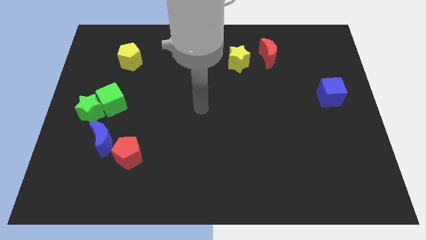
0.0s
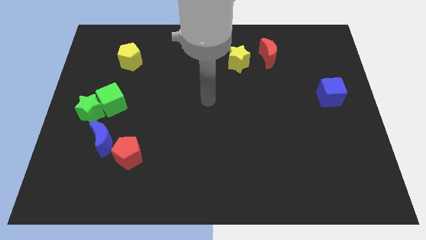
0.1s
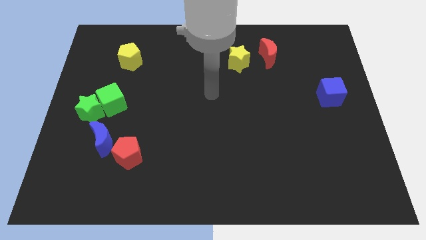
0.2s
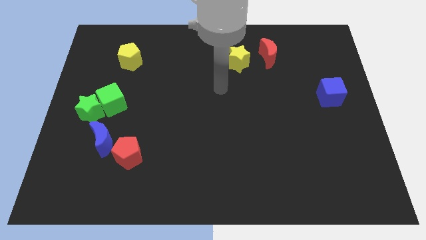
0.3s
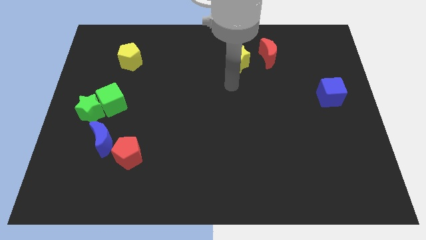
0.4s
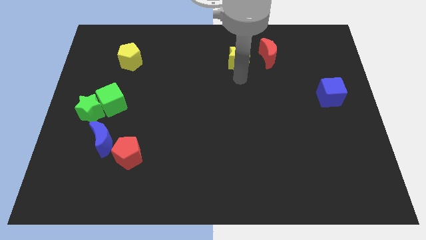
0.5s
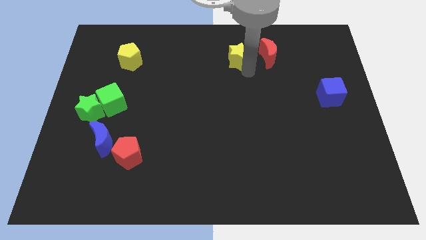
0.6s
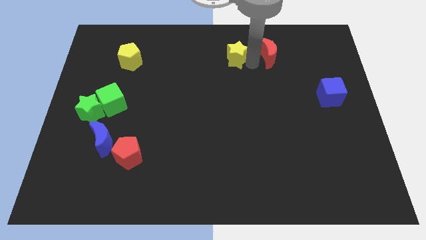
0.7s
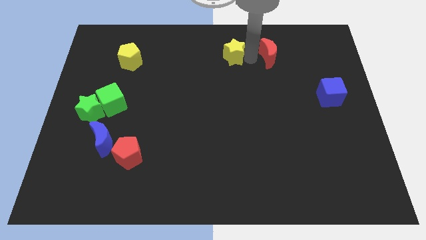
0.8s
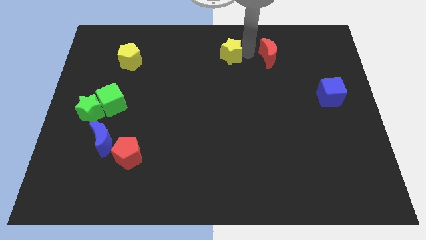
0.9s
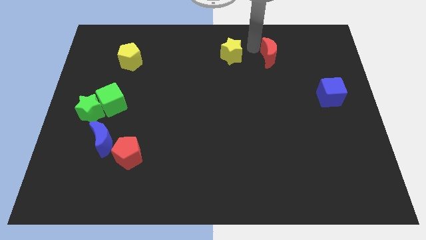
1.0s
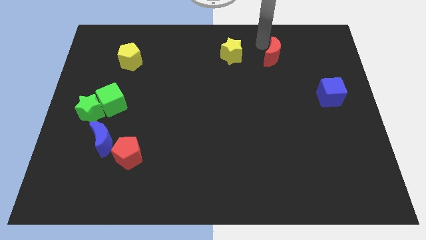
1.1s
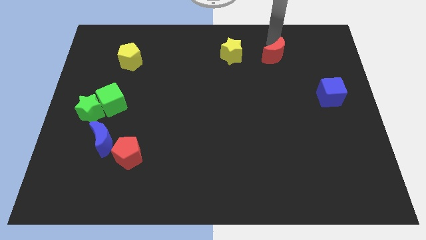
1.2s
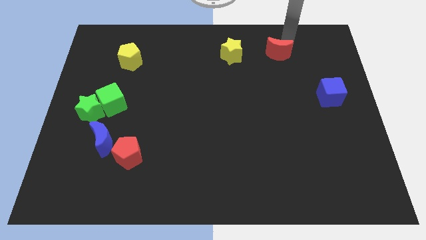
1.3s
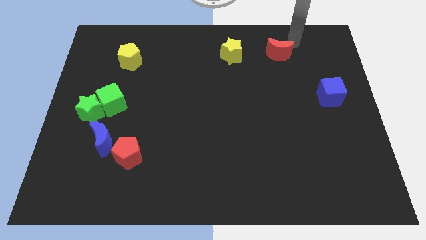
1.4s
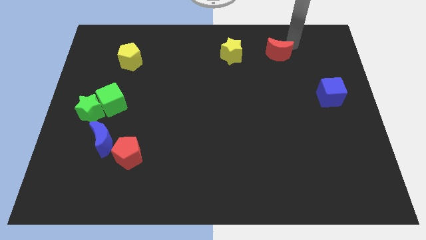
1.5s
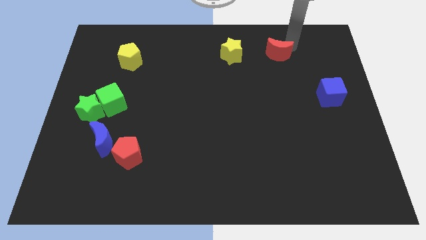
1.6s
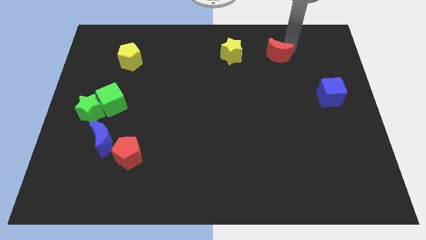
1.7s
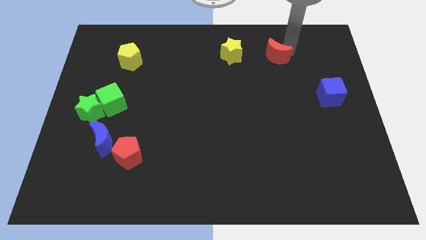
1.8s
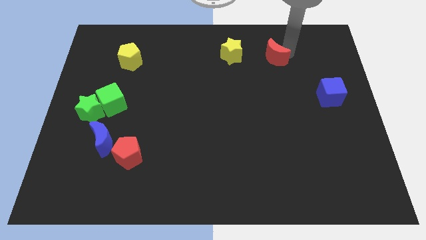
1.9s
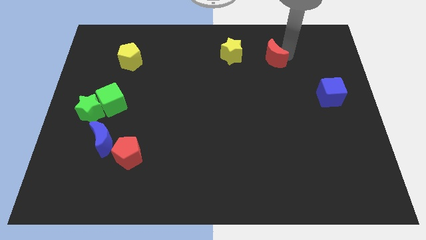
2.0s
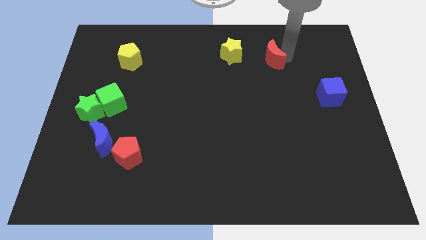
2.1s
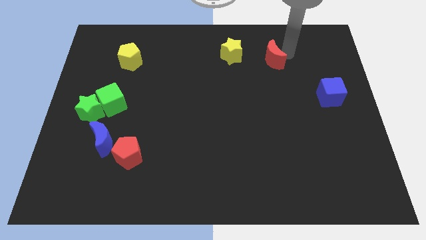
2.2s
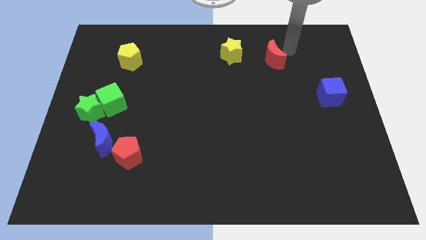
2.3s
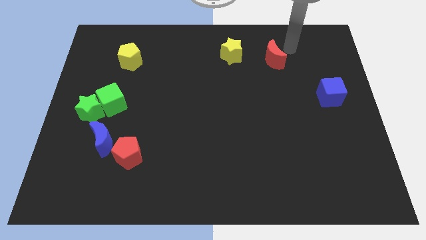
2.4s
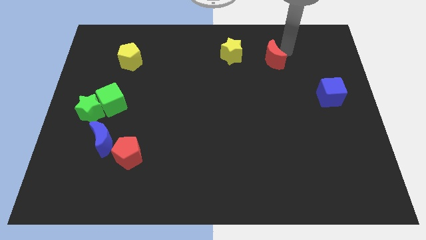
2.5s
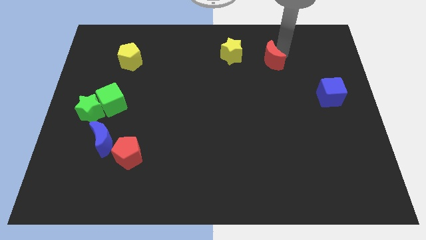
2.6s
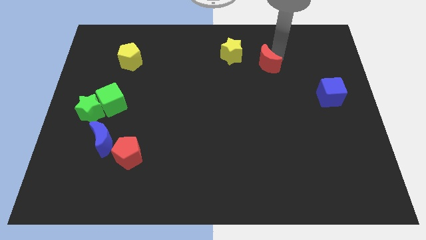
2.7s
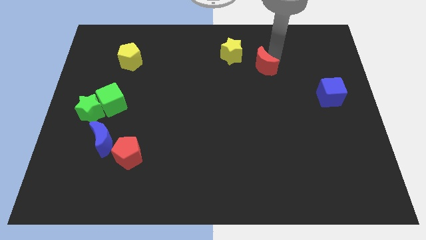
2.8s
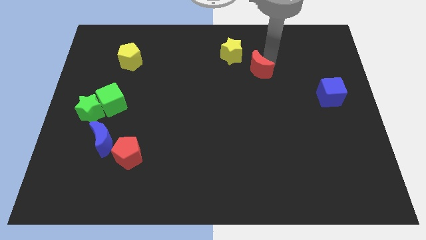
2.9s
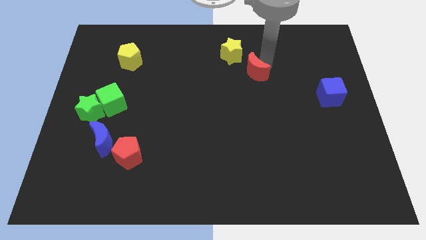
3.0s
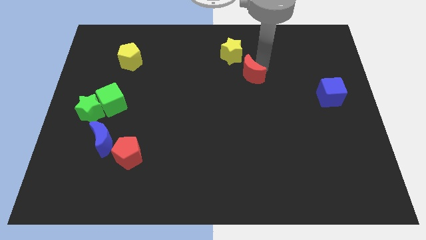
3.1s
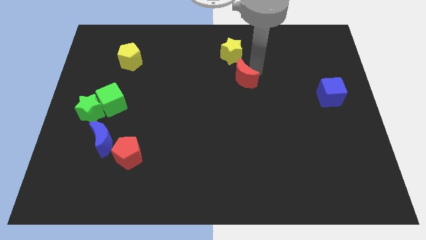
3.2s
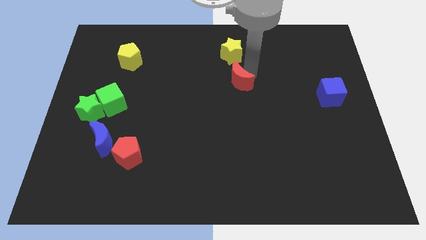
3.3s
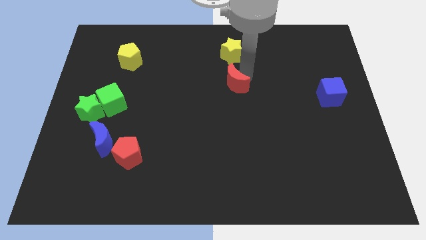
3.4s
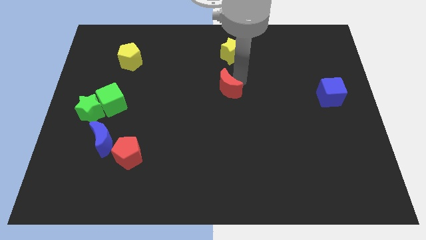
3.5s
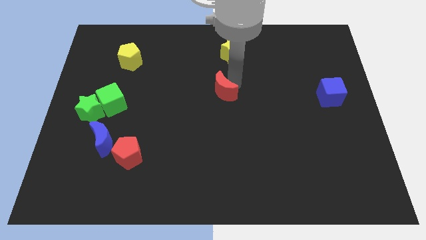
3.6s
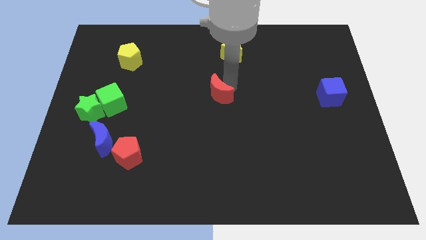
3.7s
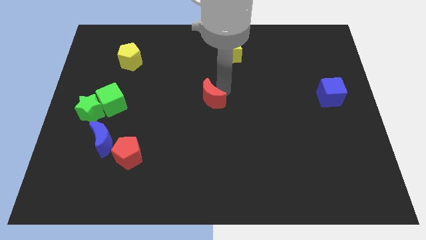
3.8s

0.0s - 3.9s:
push the red moon downwards and then left

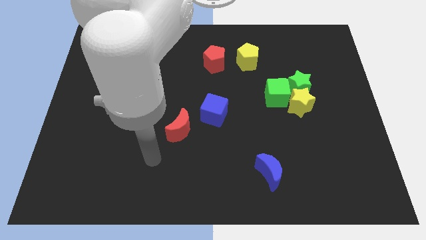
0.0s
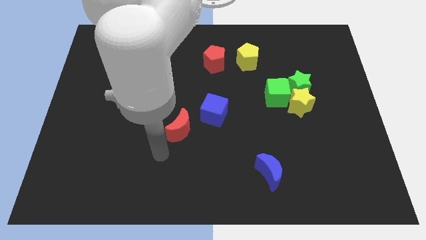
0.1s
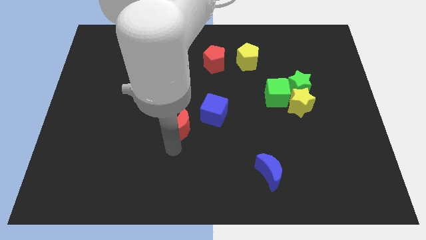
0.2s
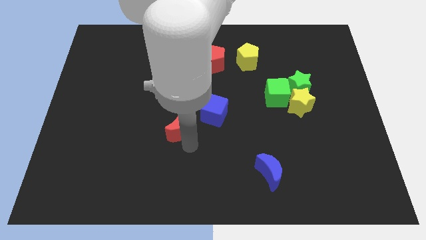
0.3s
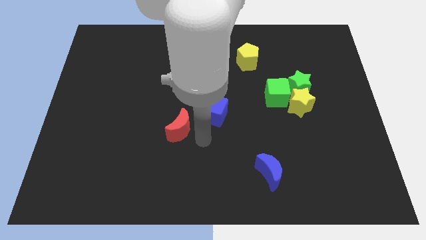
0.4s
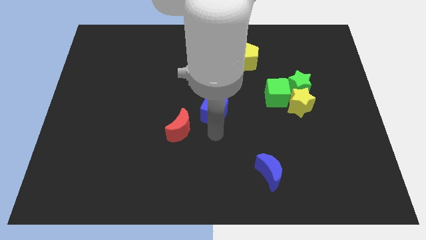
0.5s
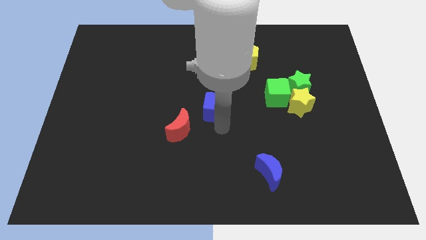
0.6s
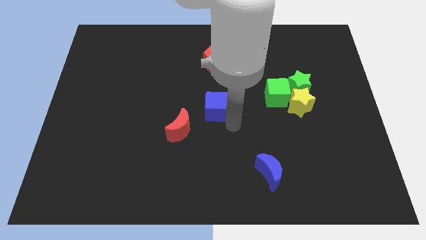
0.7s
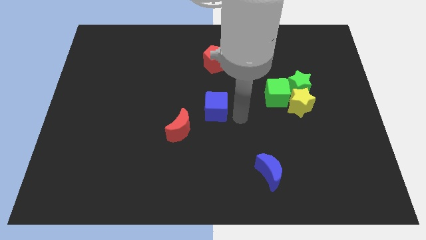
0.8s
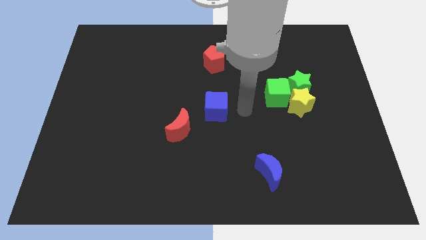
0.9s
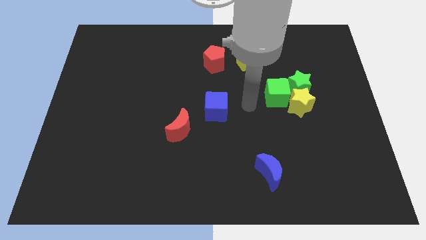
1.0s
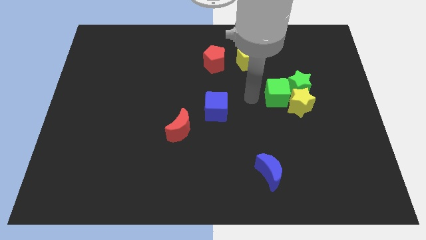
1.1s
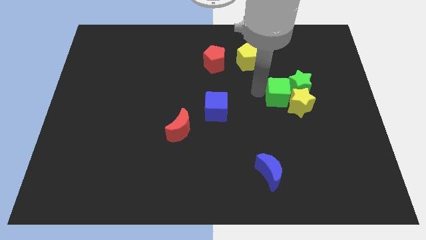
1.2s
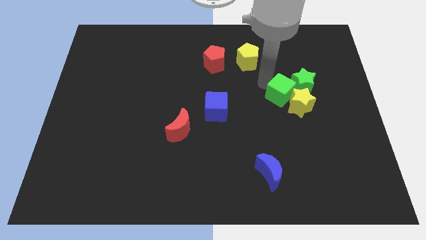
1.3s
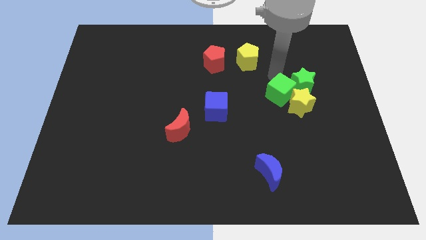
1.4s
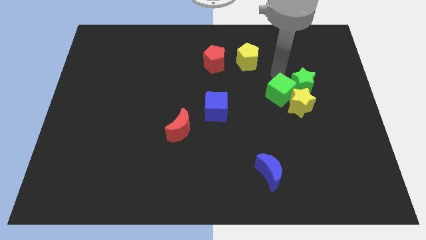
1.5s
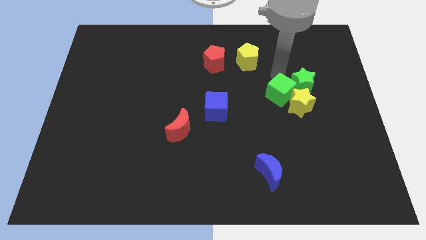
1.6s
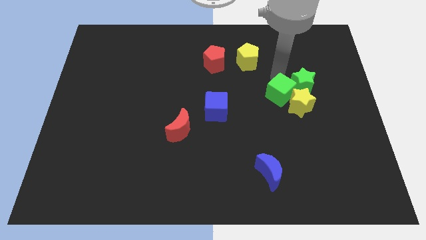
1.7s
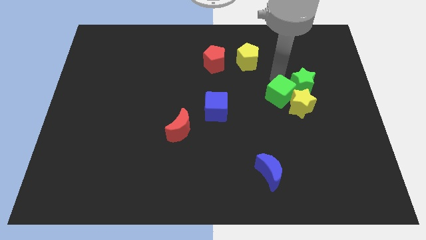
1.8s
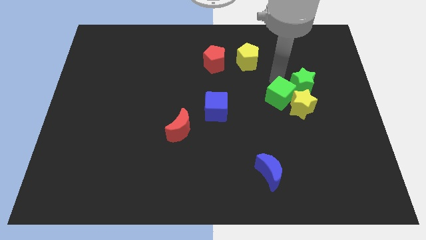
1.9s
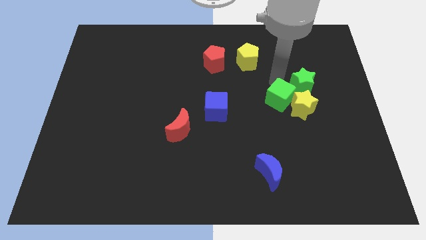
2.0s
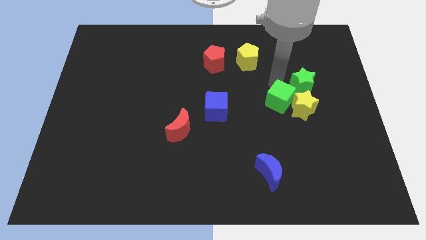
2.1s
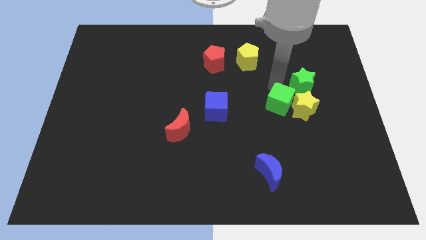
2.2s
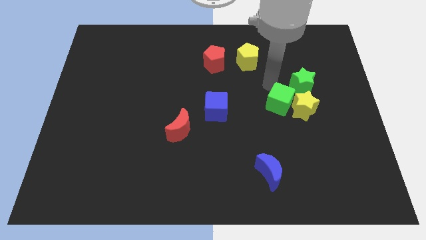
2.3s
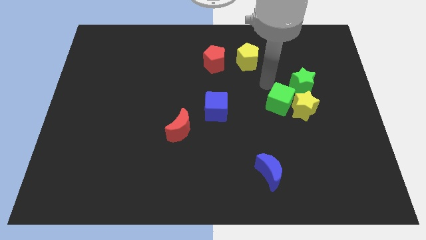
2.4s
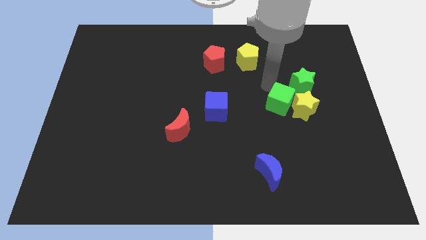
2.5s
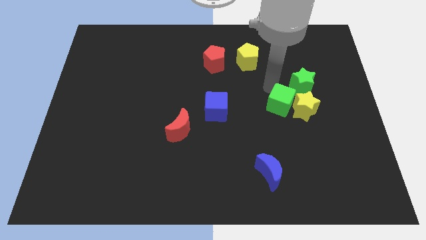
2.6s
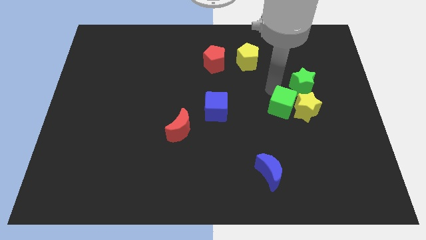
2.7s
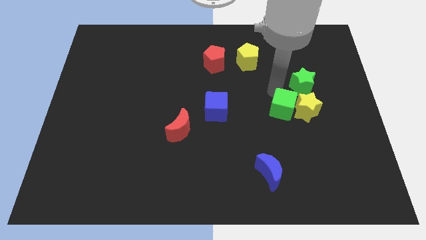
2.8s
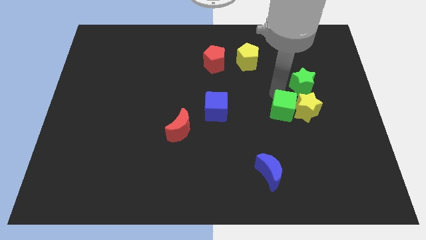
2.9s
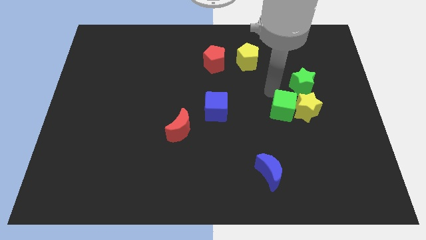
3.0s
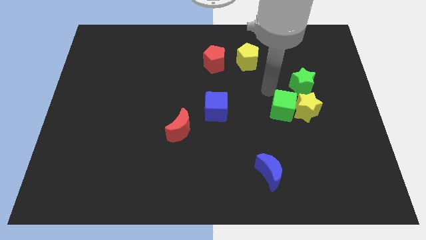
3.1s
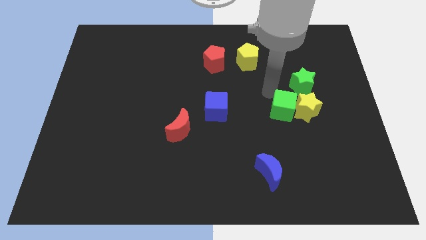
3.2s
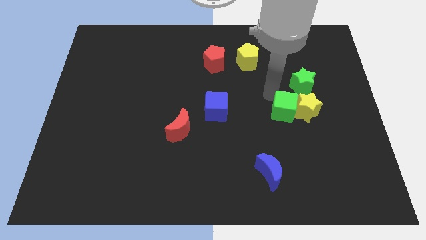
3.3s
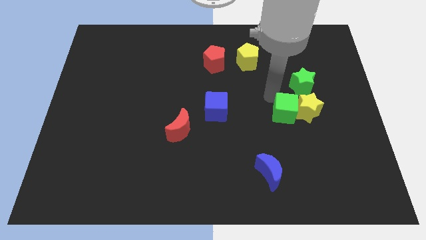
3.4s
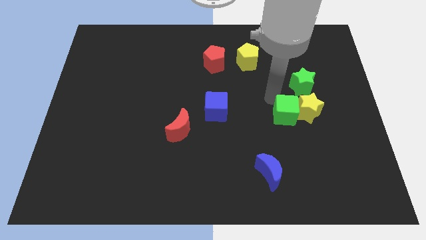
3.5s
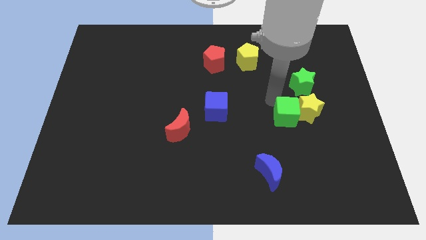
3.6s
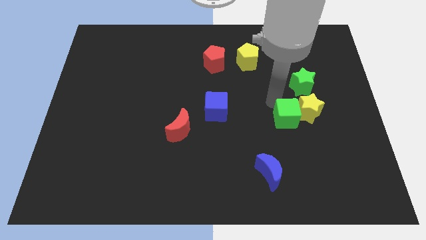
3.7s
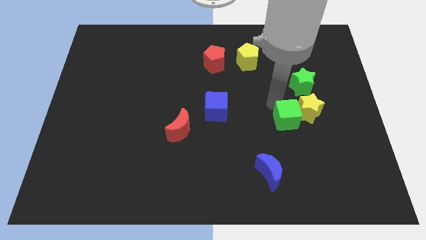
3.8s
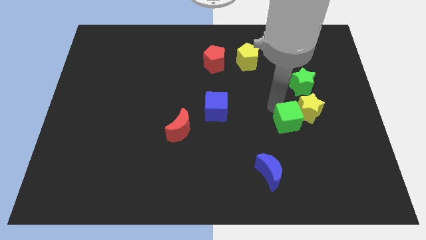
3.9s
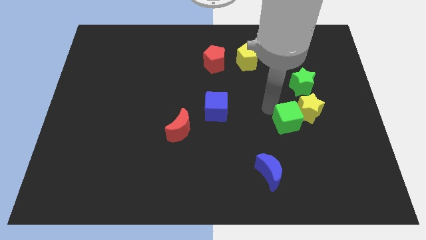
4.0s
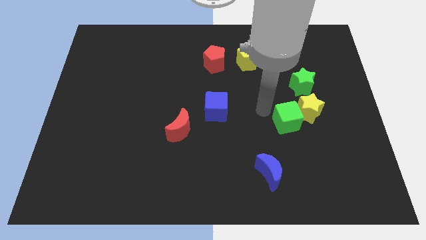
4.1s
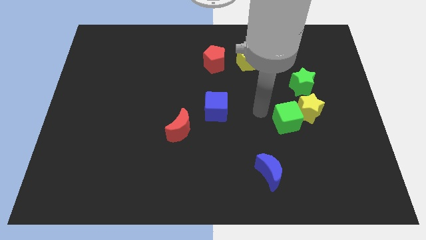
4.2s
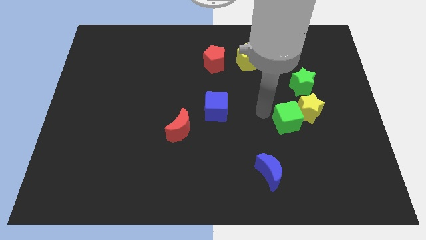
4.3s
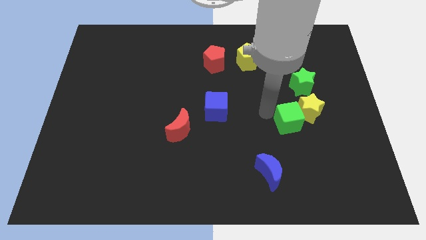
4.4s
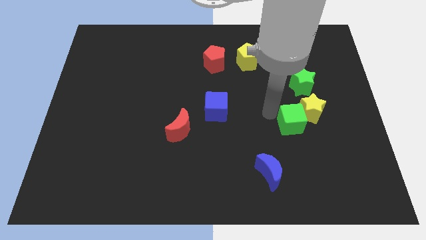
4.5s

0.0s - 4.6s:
move the green cube slightly downwards and then right
